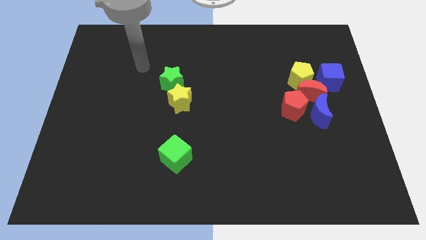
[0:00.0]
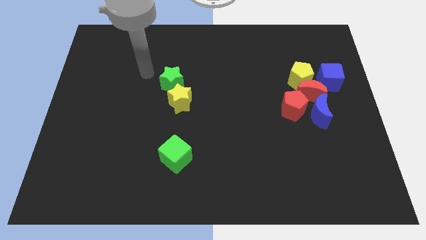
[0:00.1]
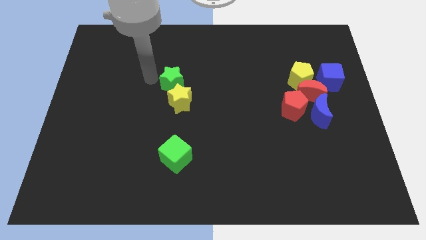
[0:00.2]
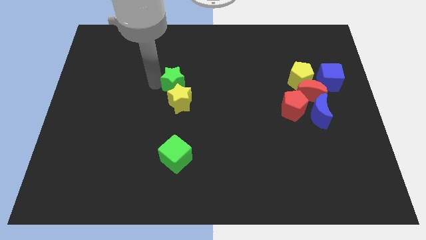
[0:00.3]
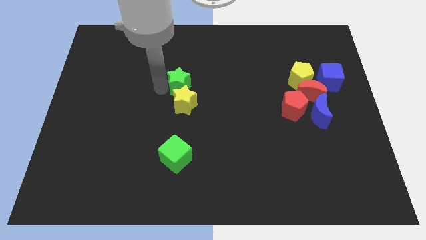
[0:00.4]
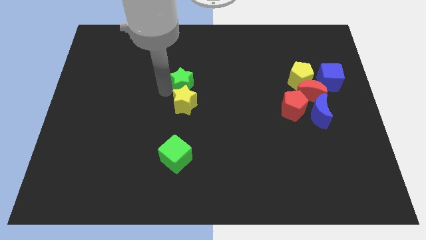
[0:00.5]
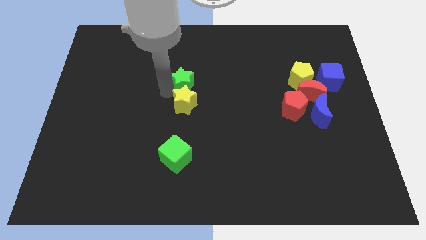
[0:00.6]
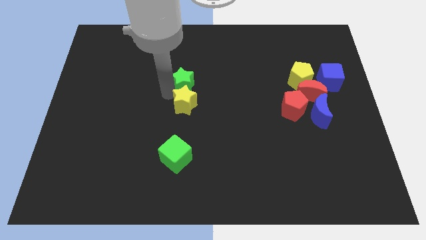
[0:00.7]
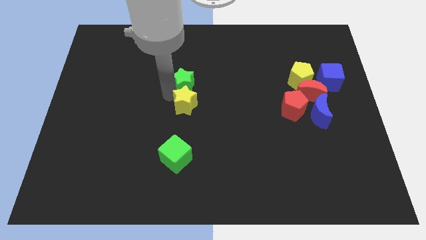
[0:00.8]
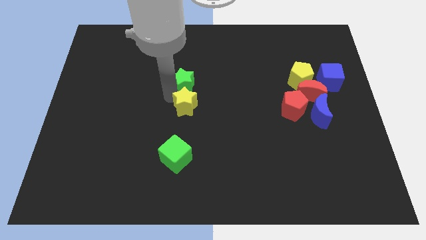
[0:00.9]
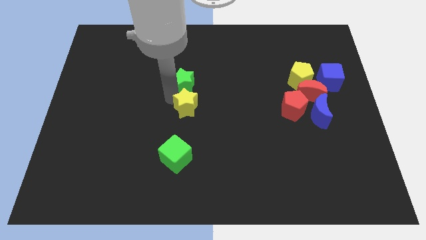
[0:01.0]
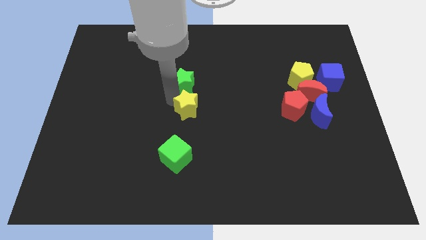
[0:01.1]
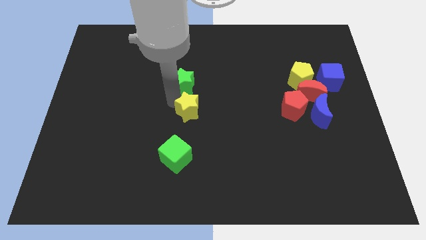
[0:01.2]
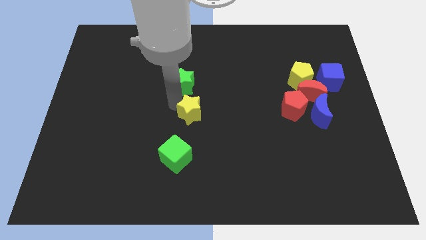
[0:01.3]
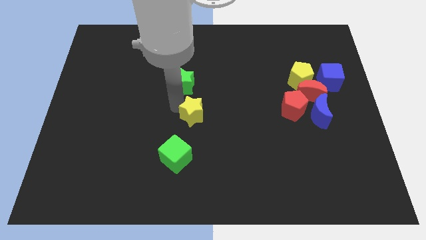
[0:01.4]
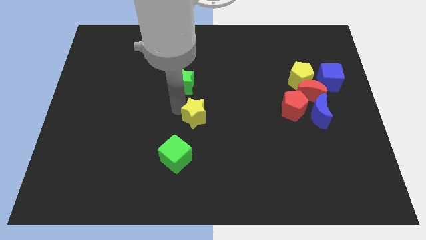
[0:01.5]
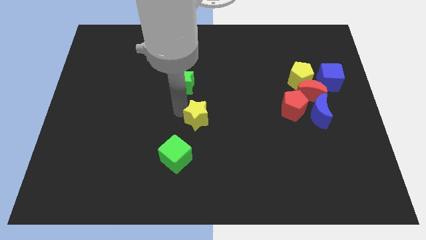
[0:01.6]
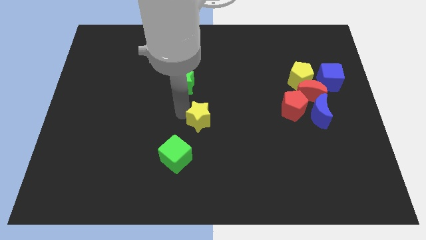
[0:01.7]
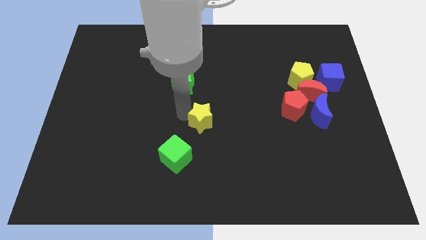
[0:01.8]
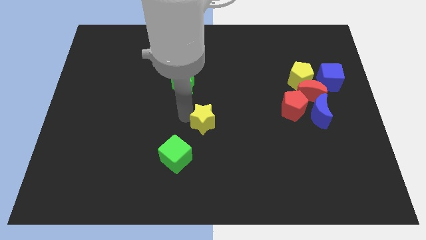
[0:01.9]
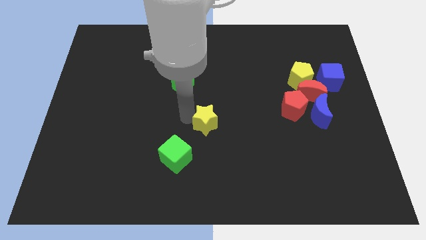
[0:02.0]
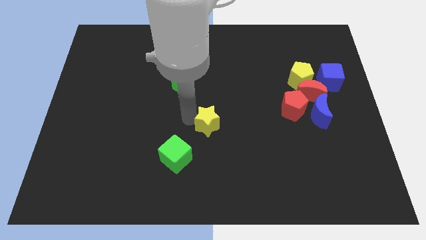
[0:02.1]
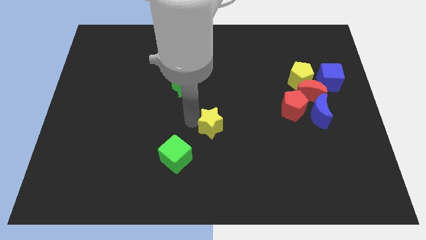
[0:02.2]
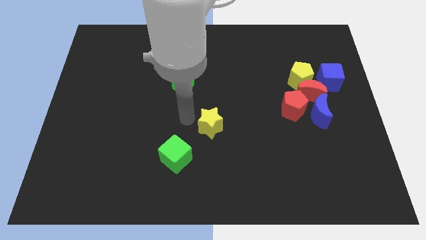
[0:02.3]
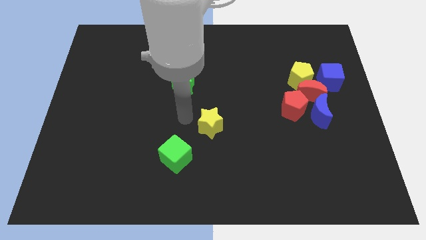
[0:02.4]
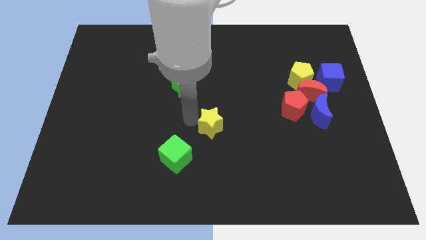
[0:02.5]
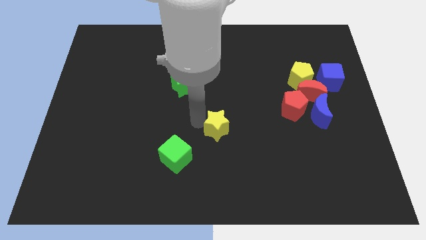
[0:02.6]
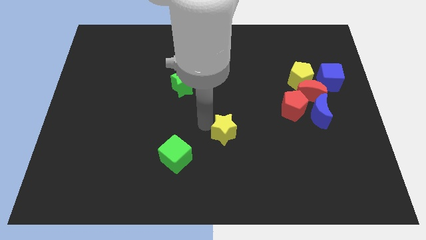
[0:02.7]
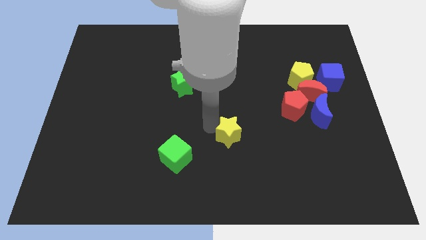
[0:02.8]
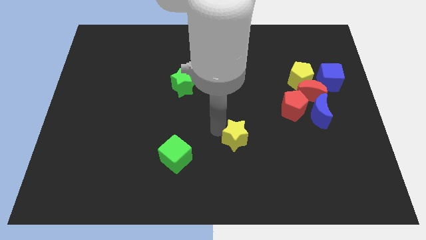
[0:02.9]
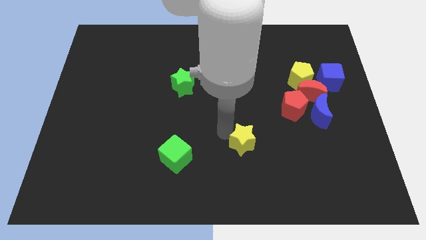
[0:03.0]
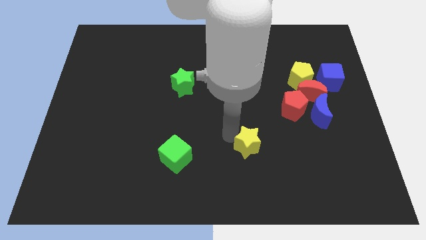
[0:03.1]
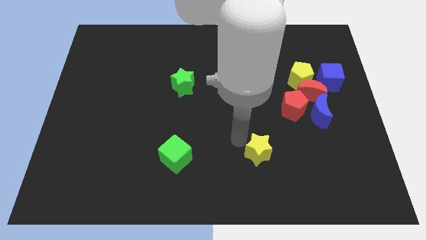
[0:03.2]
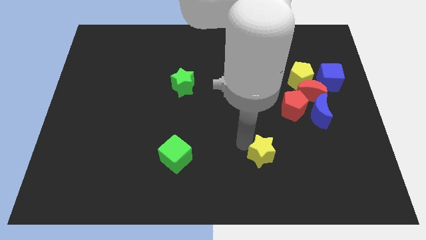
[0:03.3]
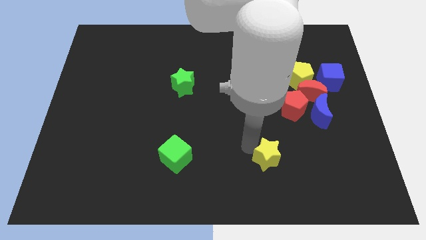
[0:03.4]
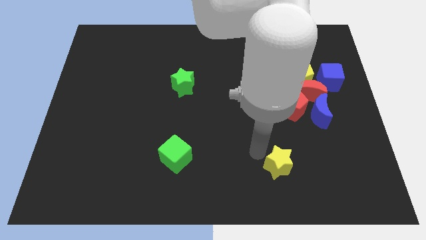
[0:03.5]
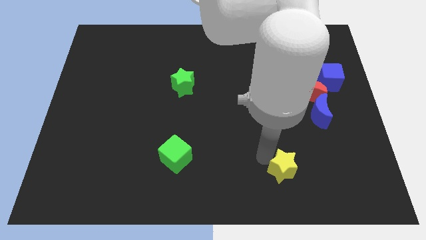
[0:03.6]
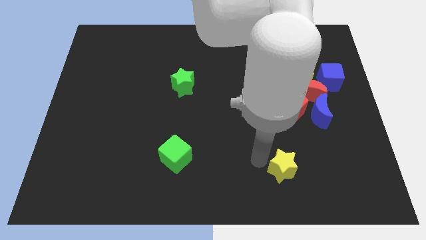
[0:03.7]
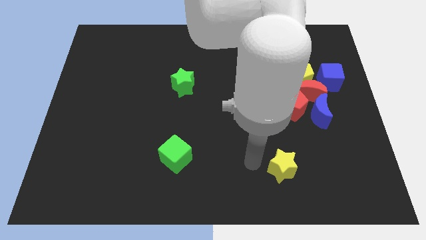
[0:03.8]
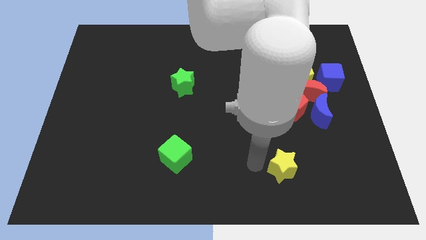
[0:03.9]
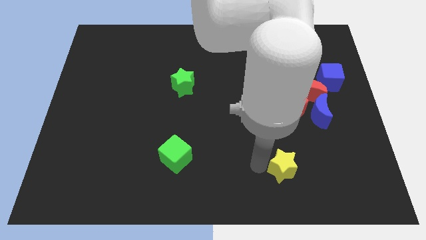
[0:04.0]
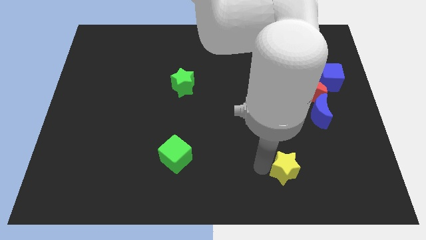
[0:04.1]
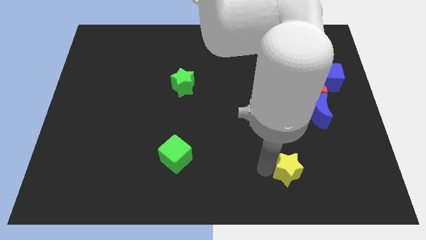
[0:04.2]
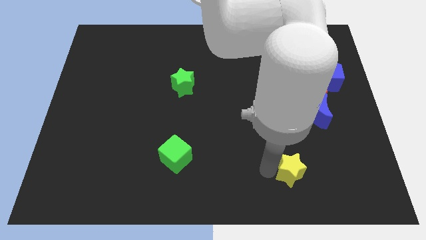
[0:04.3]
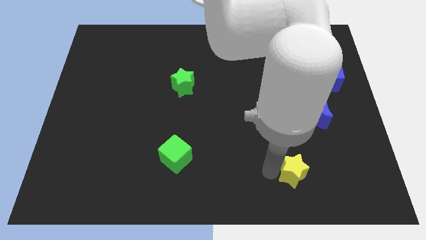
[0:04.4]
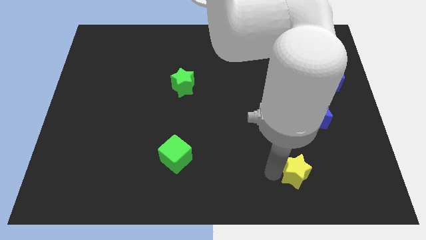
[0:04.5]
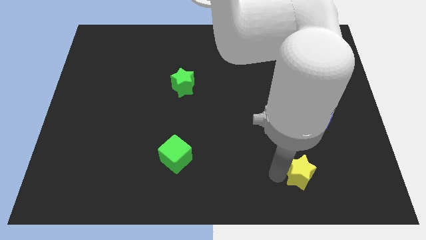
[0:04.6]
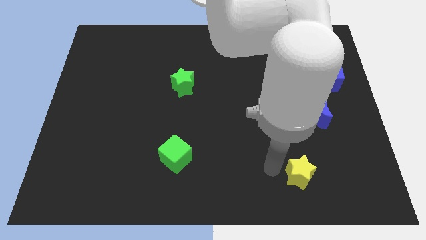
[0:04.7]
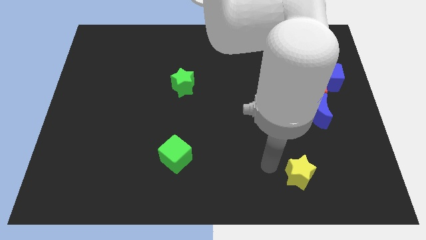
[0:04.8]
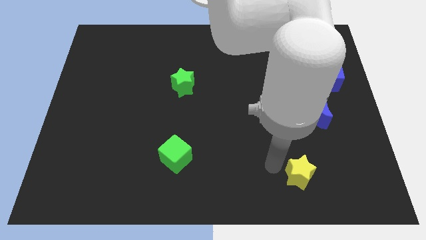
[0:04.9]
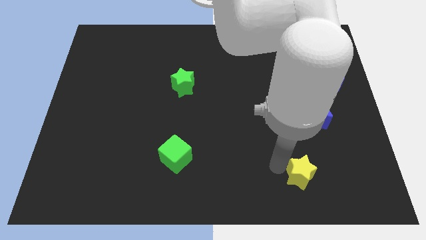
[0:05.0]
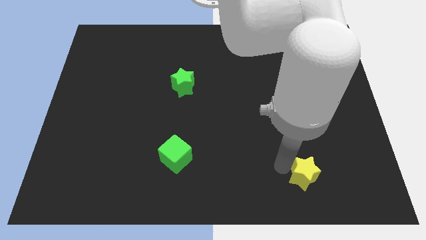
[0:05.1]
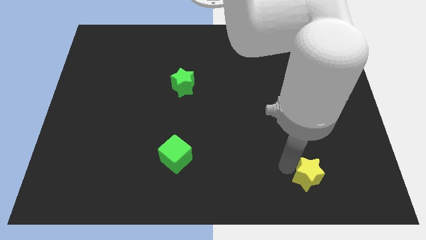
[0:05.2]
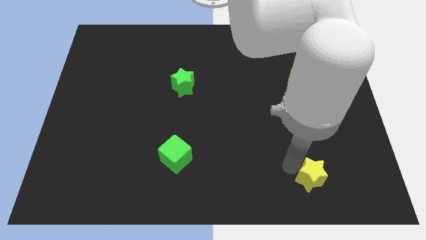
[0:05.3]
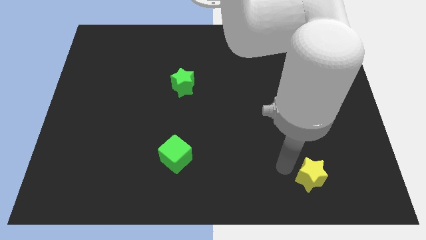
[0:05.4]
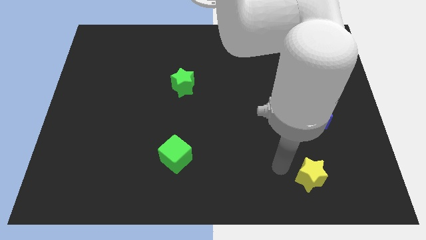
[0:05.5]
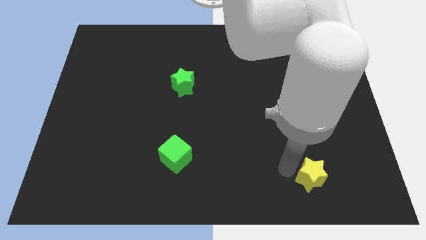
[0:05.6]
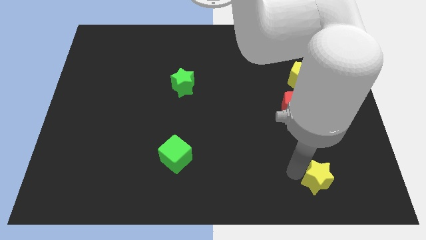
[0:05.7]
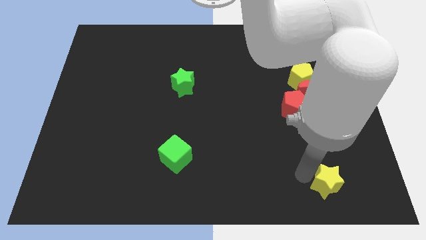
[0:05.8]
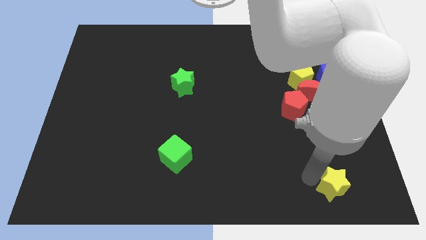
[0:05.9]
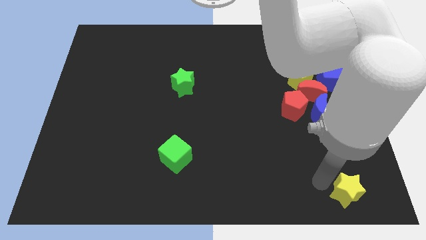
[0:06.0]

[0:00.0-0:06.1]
slide the yellow star to the lower right corner

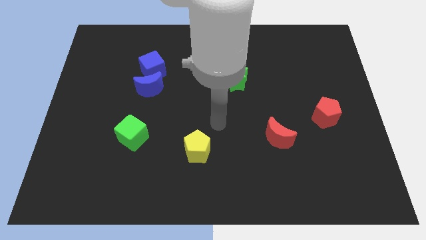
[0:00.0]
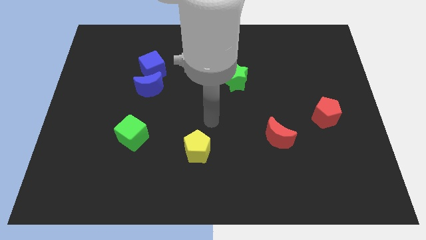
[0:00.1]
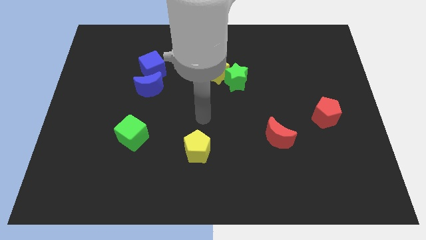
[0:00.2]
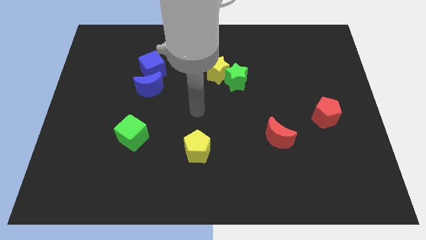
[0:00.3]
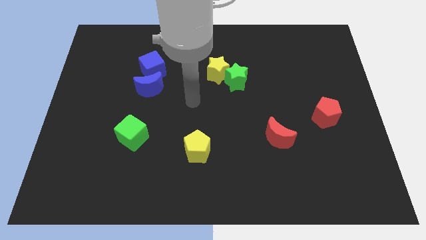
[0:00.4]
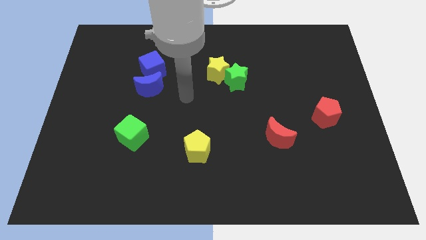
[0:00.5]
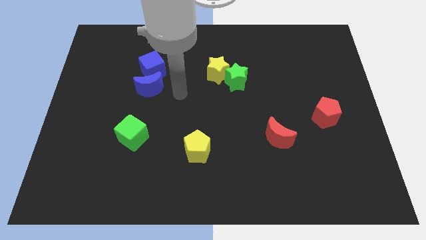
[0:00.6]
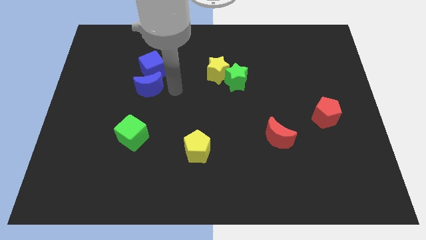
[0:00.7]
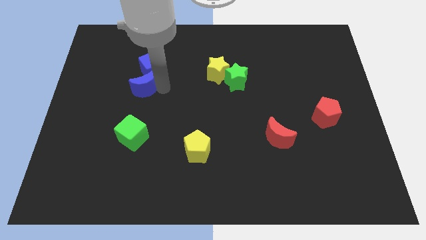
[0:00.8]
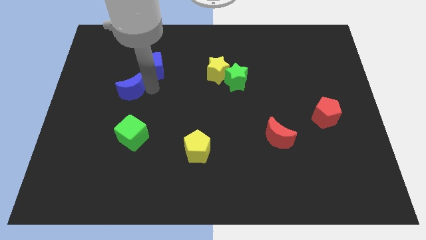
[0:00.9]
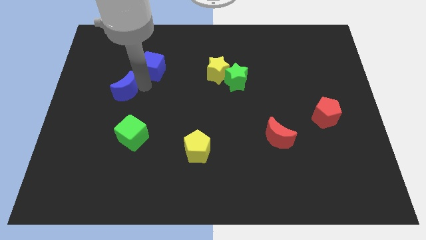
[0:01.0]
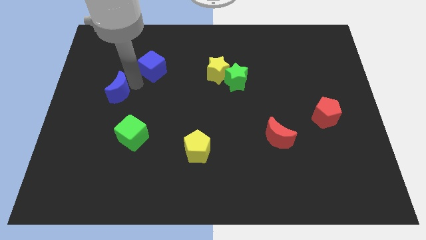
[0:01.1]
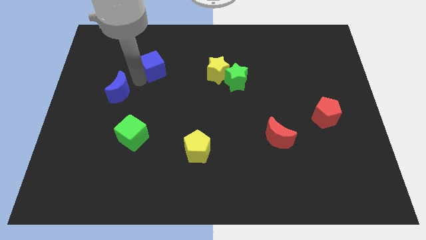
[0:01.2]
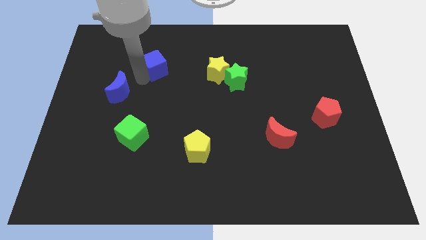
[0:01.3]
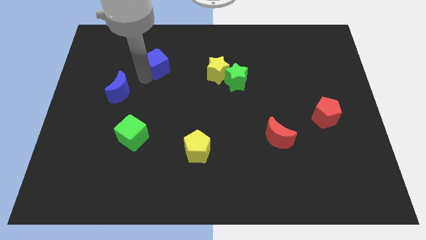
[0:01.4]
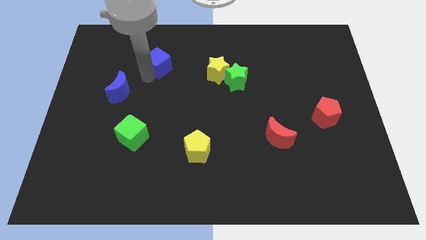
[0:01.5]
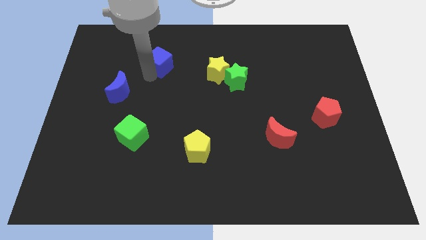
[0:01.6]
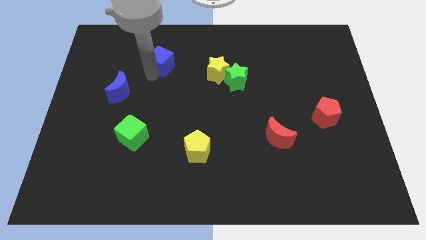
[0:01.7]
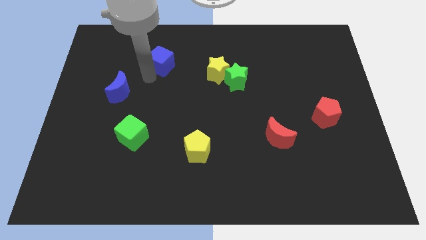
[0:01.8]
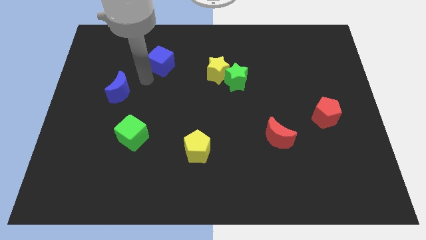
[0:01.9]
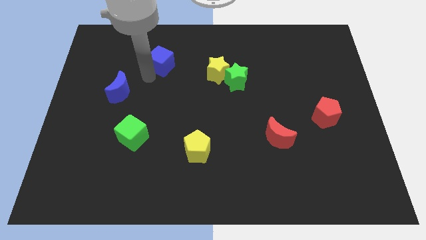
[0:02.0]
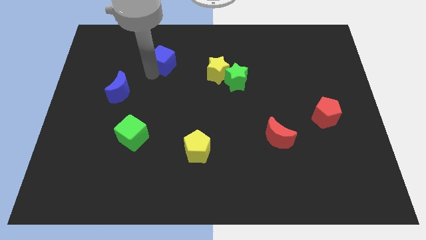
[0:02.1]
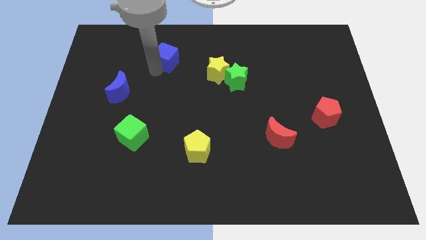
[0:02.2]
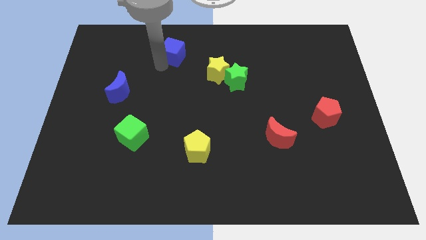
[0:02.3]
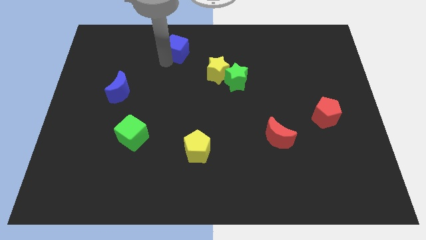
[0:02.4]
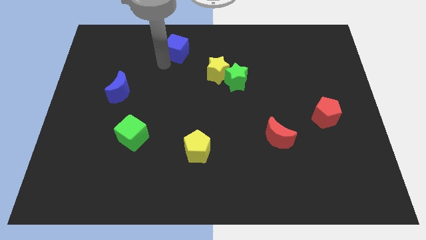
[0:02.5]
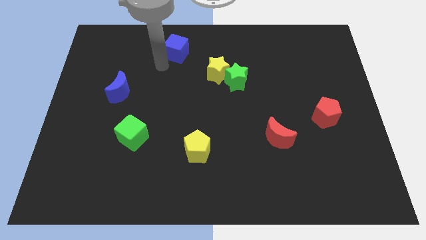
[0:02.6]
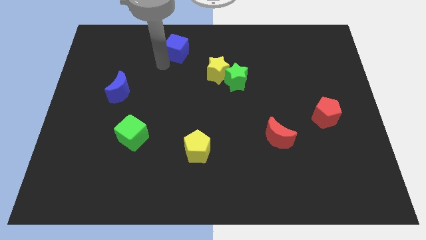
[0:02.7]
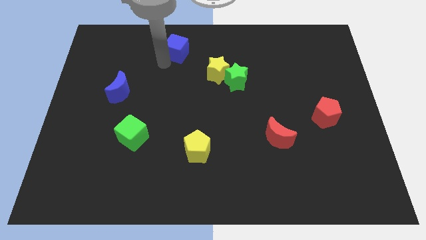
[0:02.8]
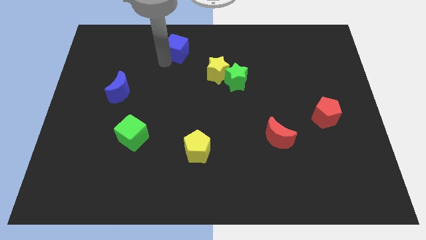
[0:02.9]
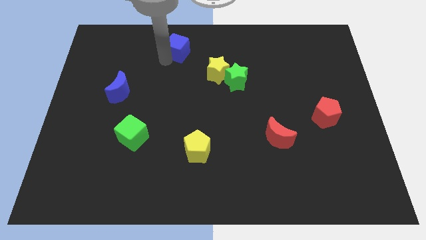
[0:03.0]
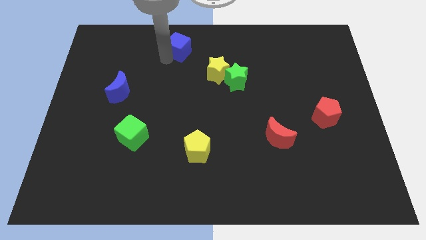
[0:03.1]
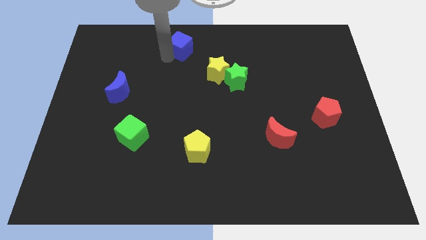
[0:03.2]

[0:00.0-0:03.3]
slide the blue cube to the top side
